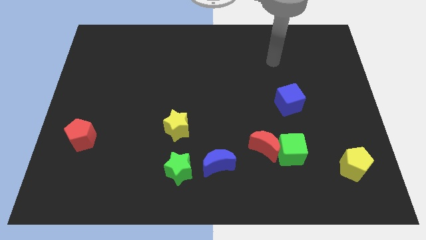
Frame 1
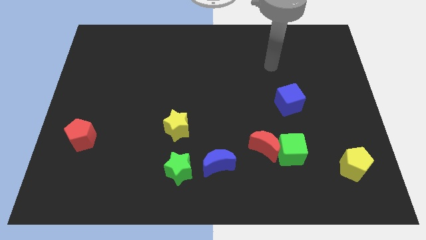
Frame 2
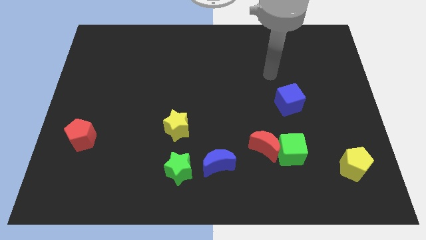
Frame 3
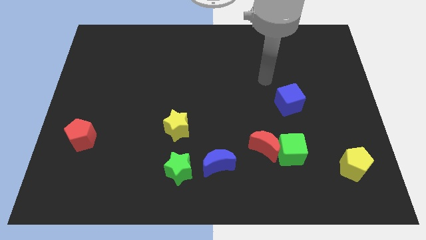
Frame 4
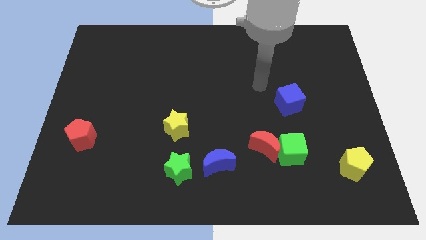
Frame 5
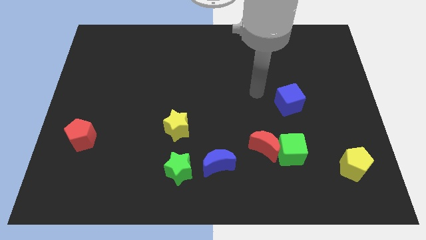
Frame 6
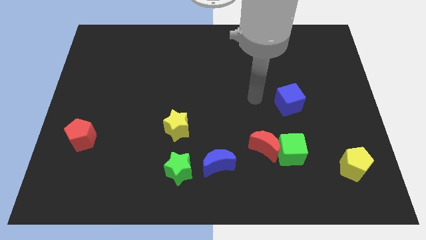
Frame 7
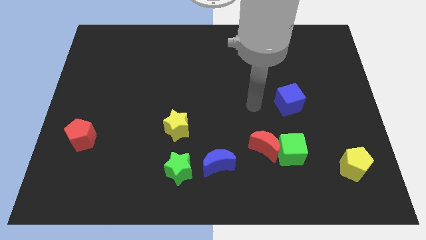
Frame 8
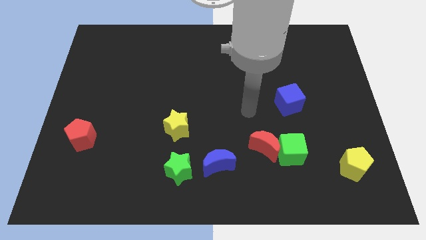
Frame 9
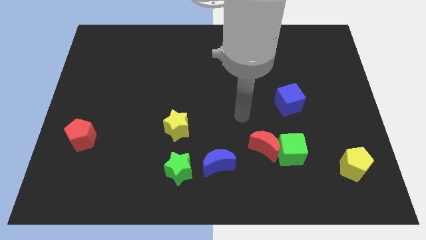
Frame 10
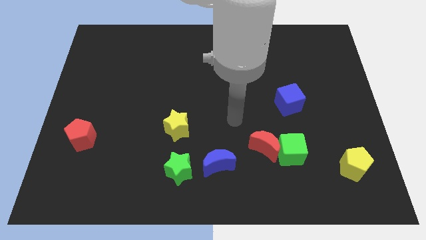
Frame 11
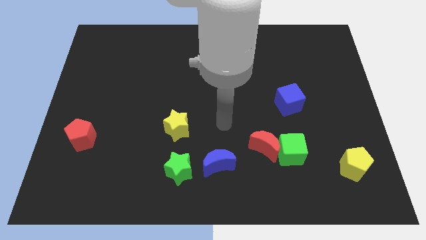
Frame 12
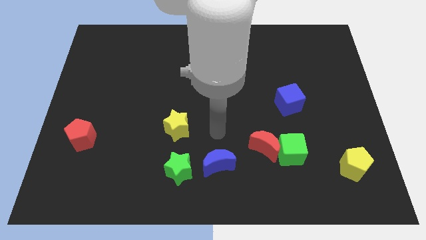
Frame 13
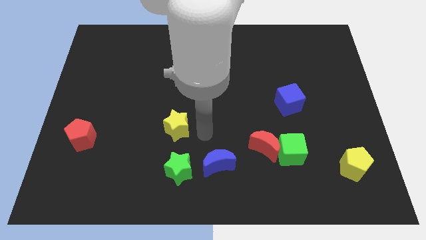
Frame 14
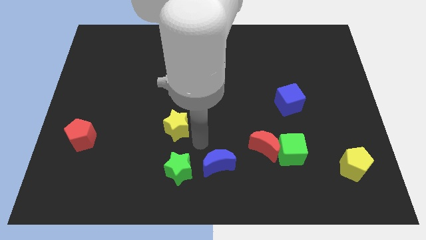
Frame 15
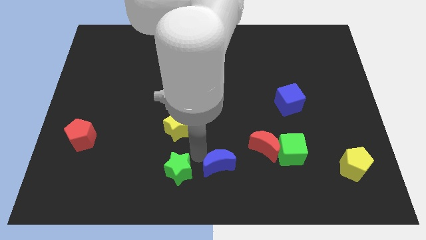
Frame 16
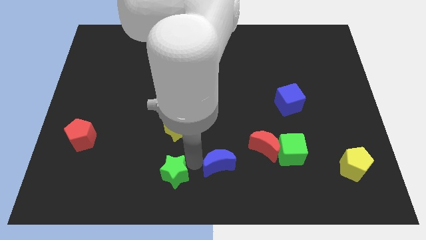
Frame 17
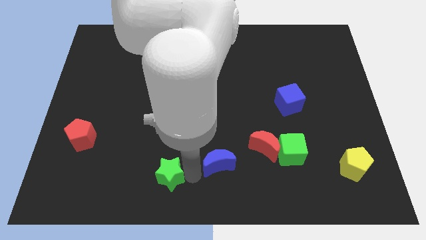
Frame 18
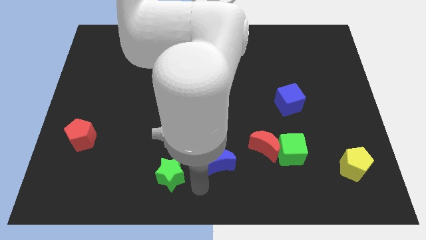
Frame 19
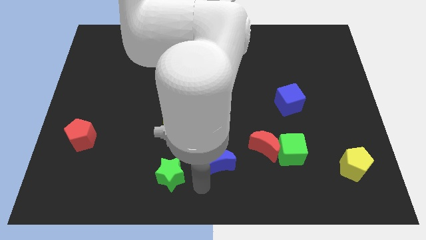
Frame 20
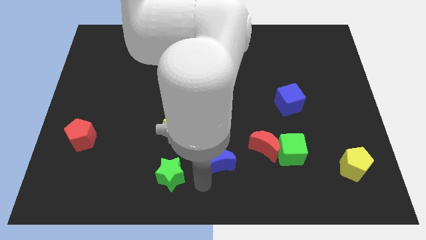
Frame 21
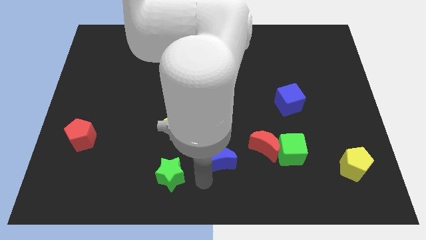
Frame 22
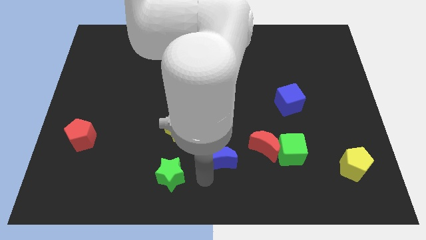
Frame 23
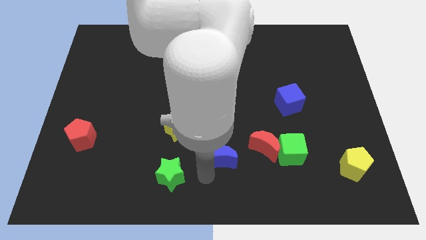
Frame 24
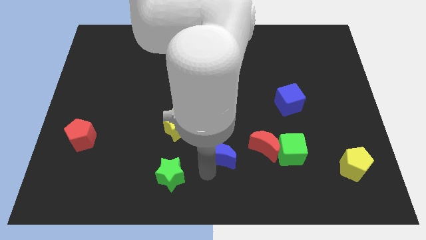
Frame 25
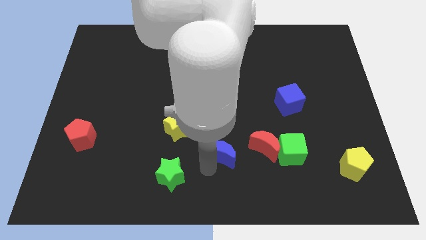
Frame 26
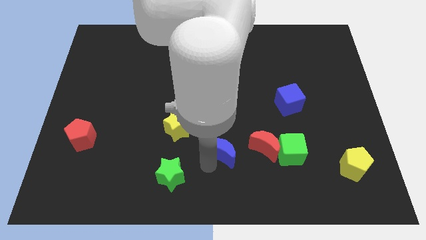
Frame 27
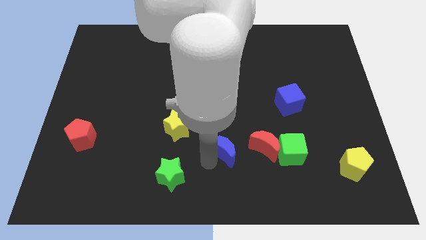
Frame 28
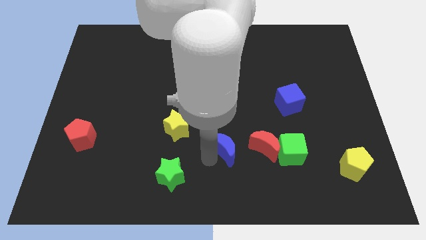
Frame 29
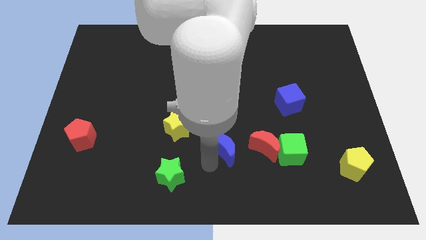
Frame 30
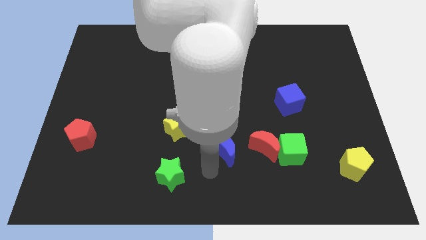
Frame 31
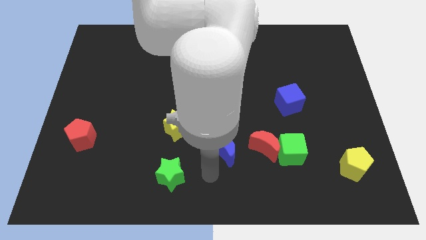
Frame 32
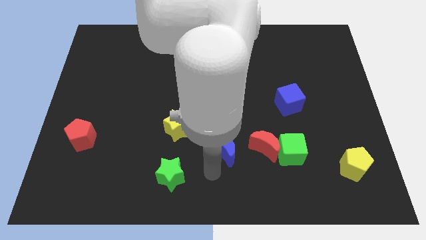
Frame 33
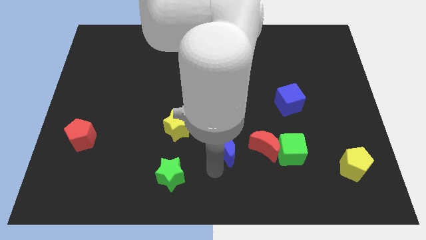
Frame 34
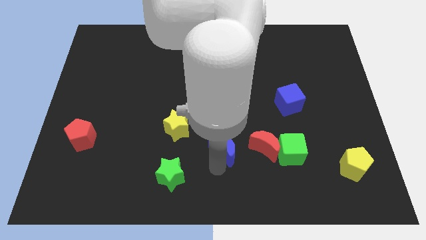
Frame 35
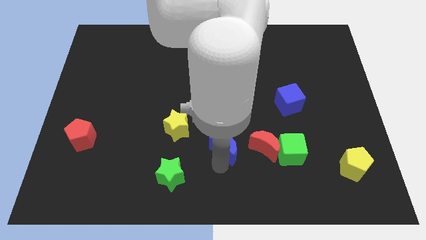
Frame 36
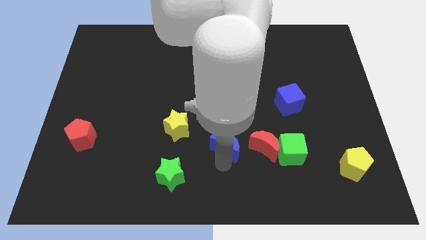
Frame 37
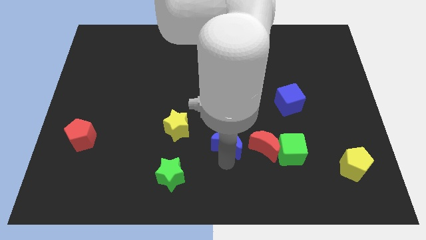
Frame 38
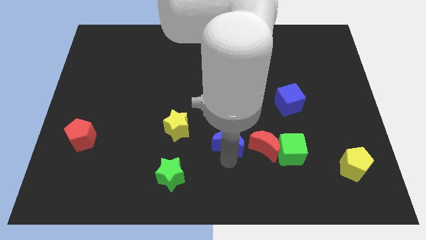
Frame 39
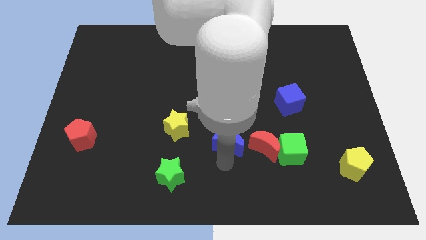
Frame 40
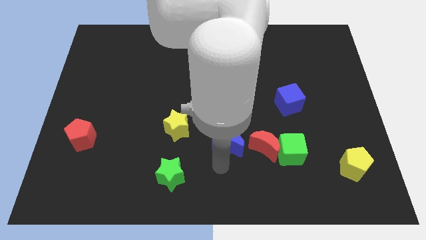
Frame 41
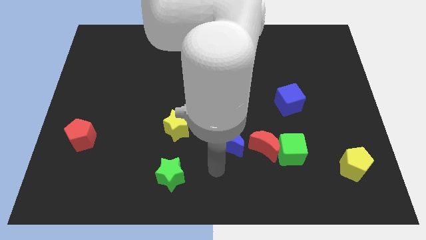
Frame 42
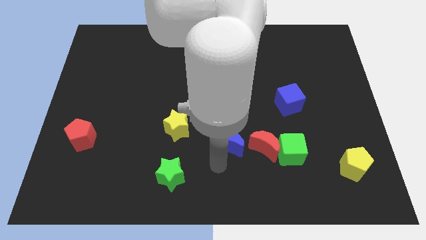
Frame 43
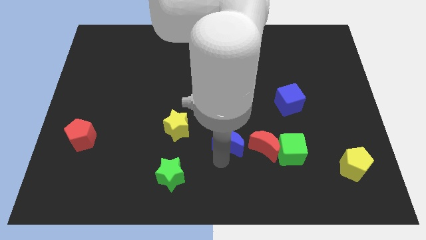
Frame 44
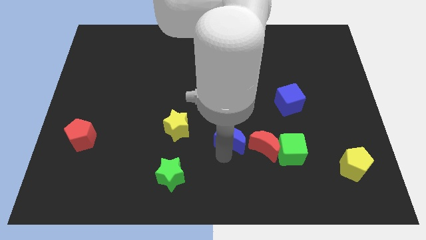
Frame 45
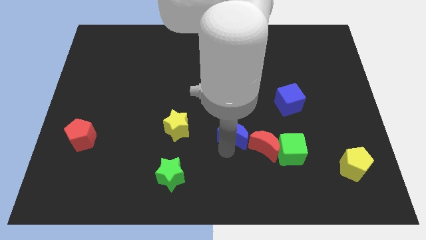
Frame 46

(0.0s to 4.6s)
push the blue moon a bit upwards and to the right diagonally

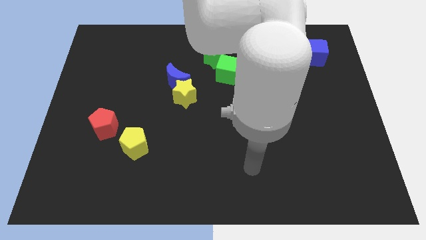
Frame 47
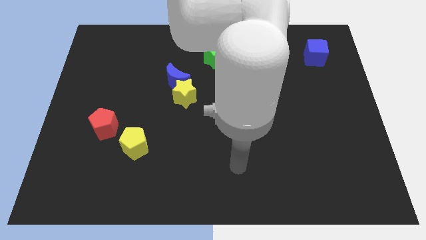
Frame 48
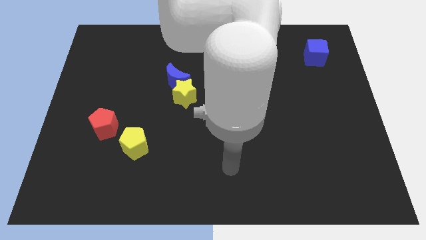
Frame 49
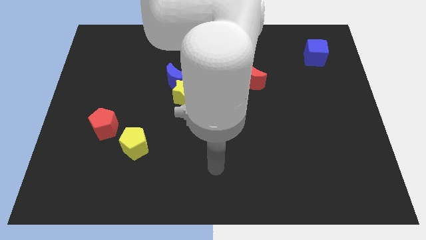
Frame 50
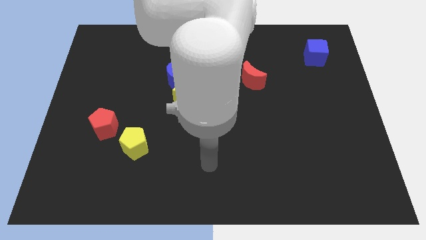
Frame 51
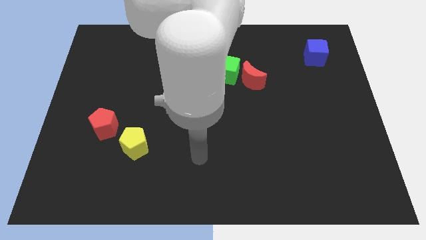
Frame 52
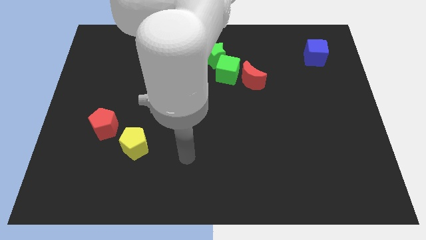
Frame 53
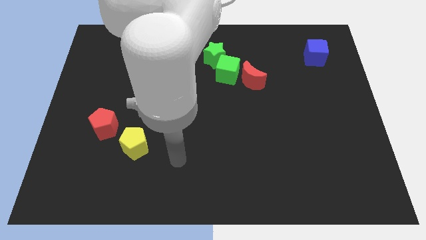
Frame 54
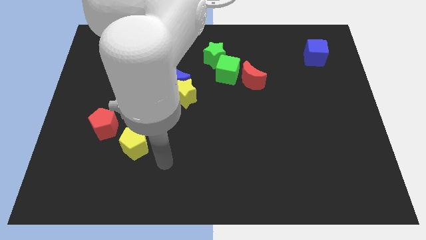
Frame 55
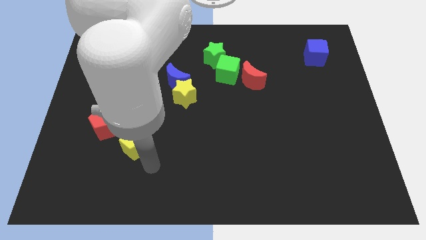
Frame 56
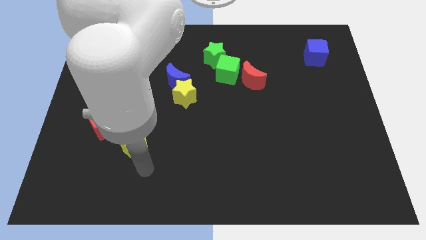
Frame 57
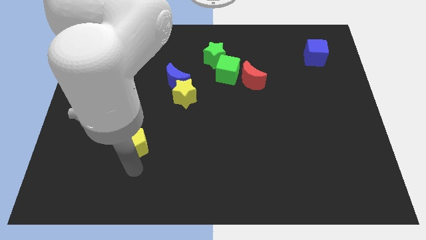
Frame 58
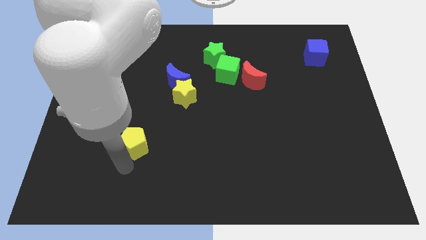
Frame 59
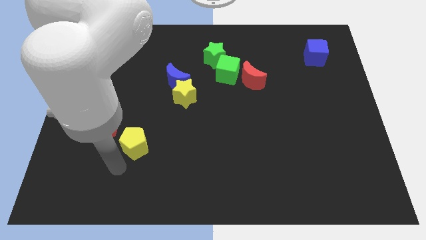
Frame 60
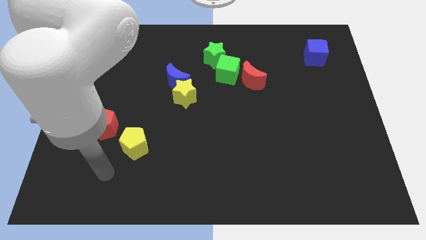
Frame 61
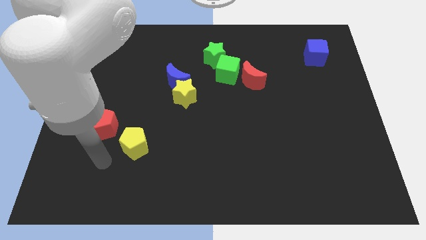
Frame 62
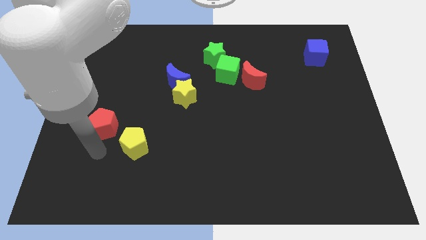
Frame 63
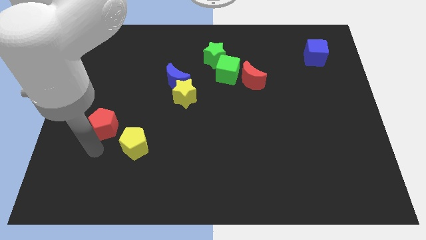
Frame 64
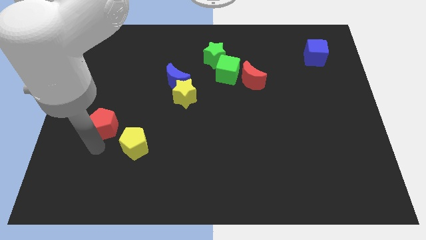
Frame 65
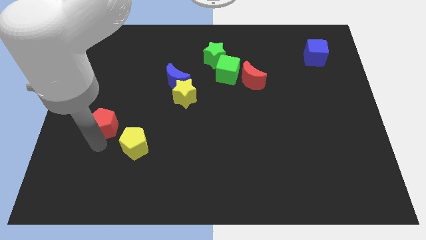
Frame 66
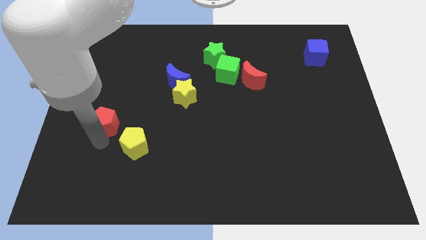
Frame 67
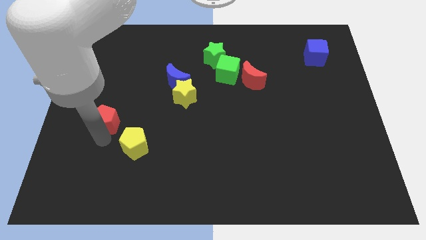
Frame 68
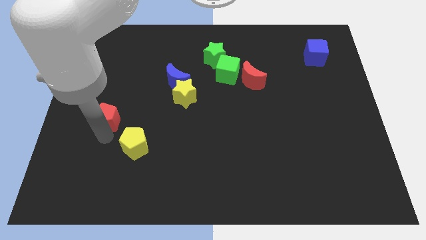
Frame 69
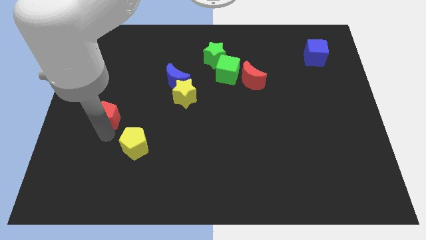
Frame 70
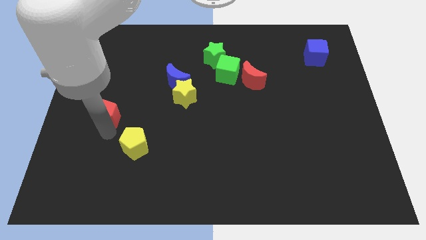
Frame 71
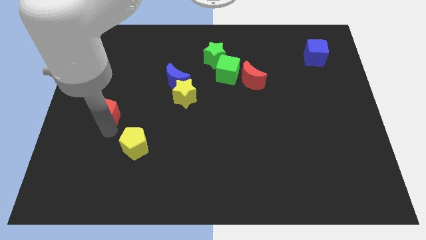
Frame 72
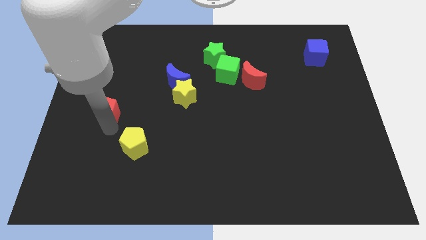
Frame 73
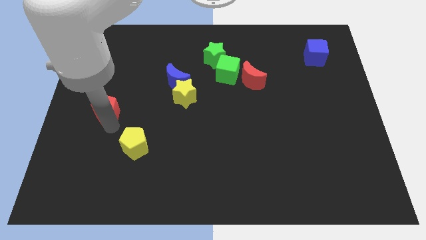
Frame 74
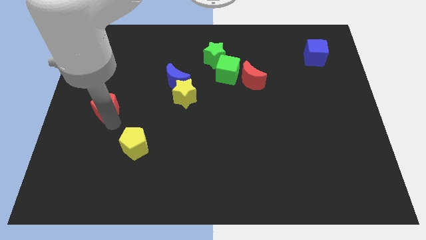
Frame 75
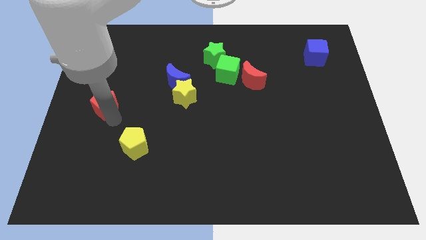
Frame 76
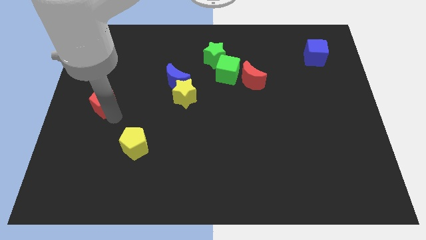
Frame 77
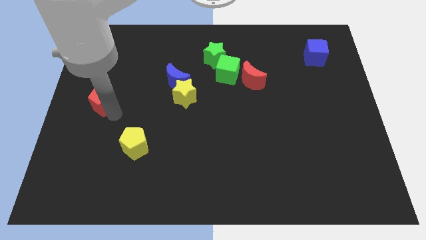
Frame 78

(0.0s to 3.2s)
slightly slide the red pentagon up

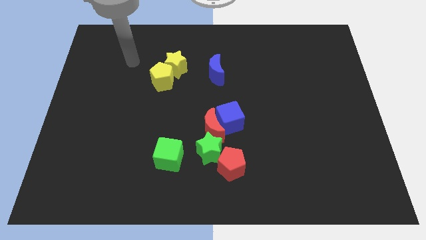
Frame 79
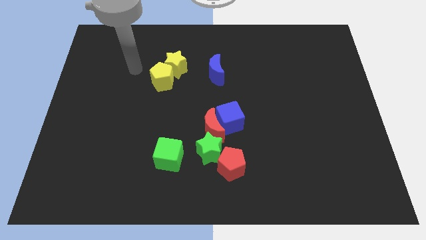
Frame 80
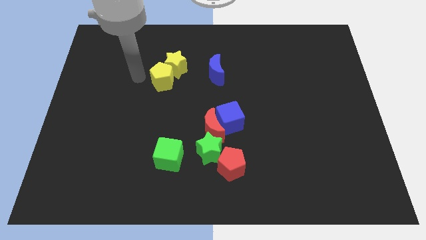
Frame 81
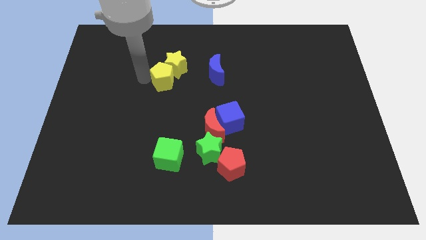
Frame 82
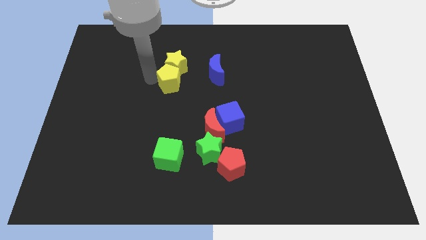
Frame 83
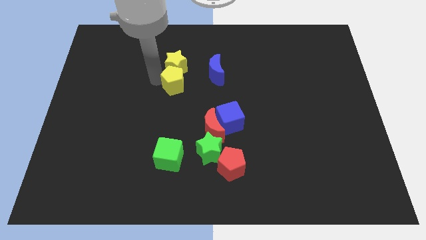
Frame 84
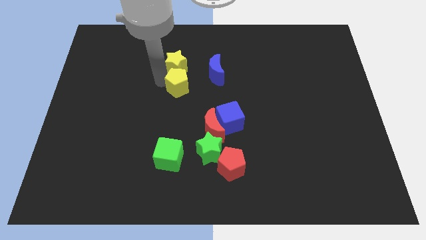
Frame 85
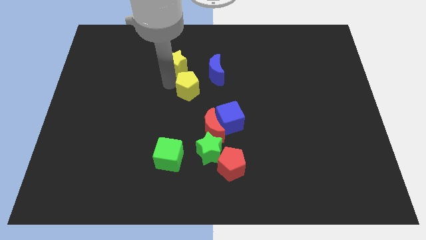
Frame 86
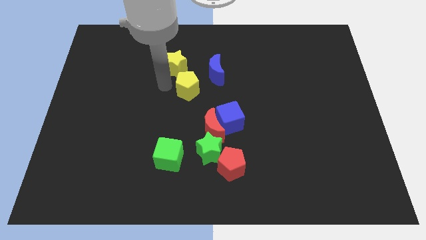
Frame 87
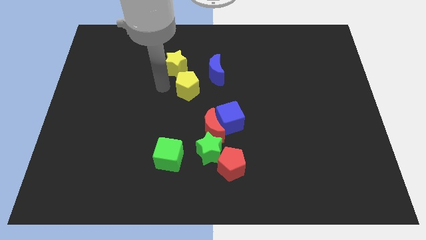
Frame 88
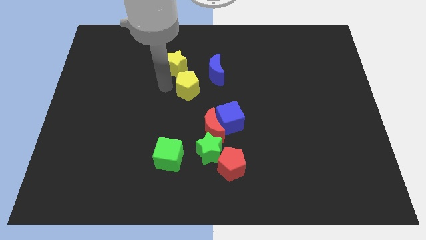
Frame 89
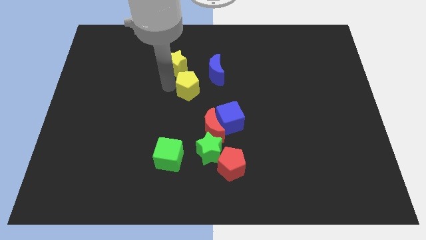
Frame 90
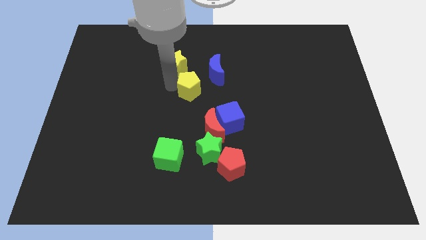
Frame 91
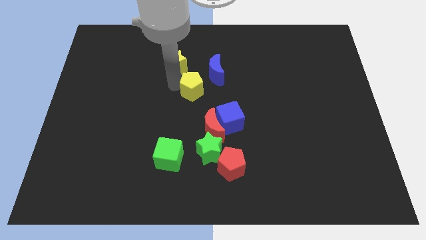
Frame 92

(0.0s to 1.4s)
slide the yellow pentagon to the right slightly
